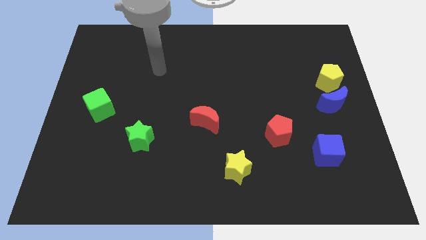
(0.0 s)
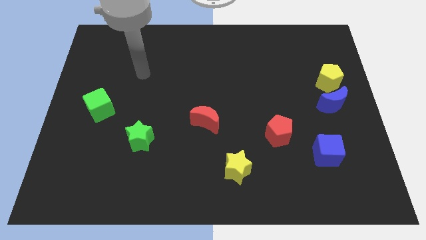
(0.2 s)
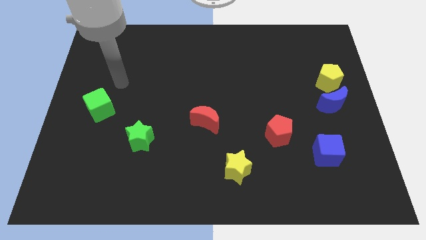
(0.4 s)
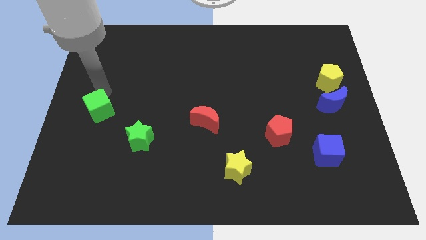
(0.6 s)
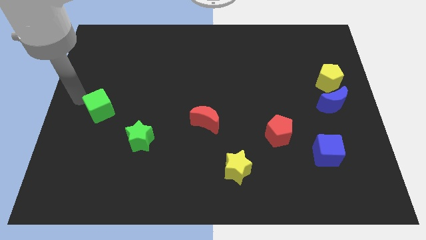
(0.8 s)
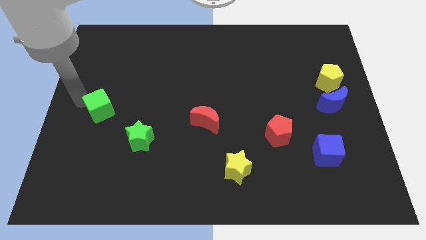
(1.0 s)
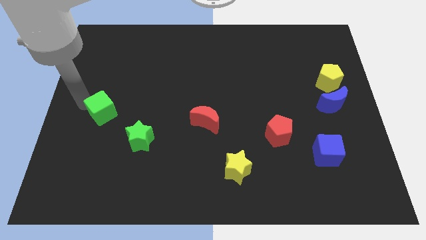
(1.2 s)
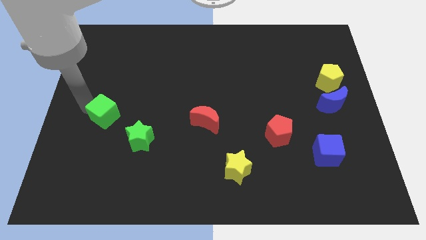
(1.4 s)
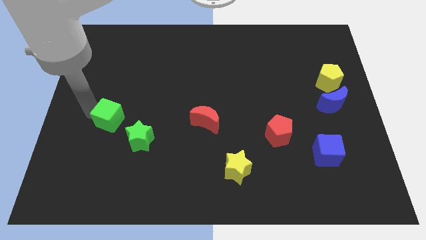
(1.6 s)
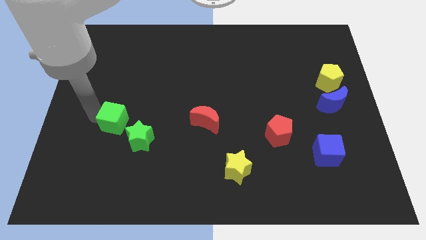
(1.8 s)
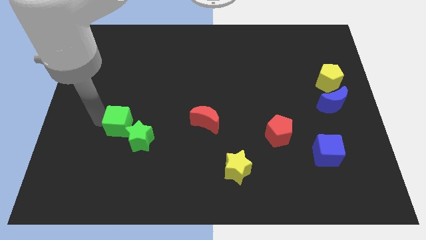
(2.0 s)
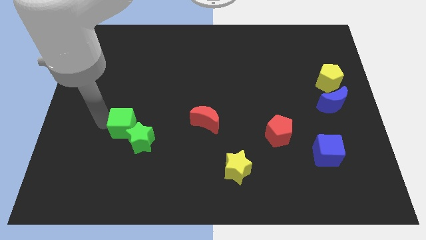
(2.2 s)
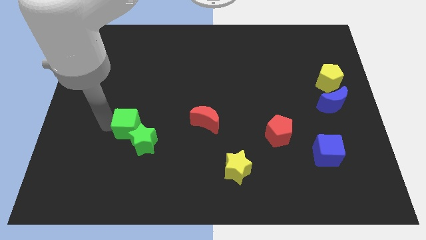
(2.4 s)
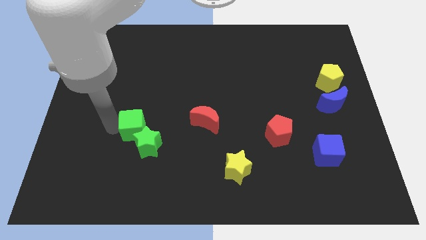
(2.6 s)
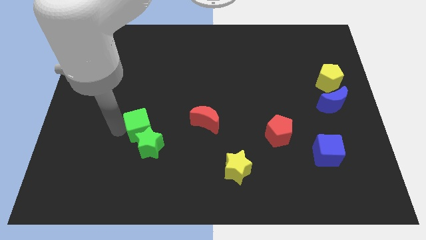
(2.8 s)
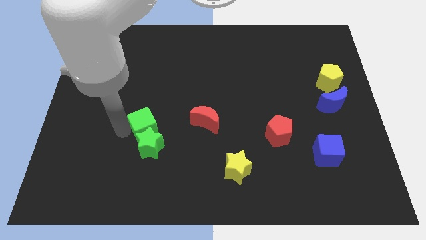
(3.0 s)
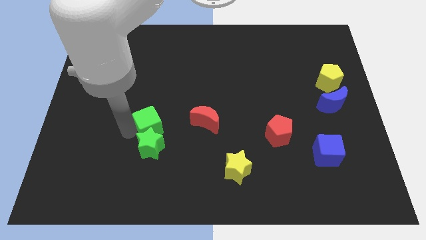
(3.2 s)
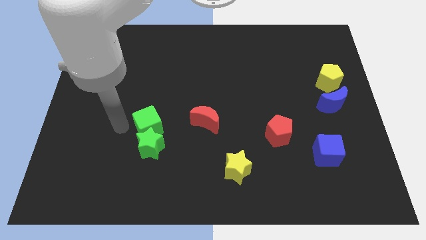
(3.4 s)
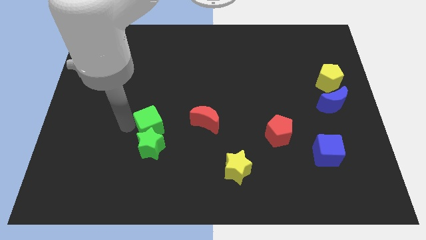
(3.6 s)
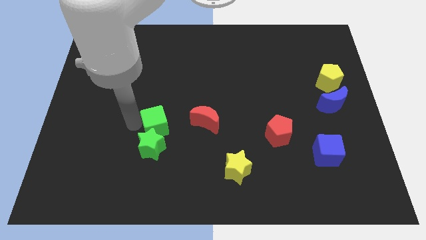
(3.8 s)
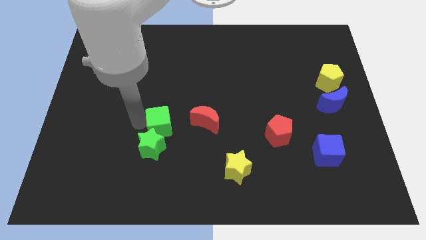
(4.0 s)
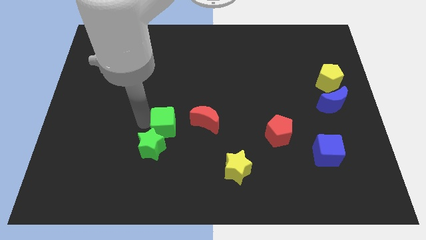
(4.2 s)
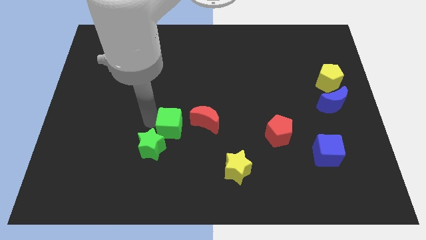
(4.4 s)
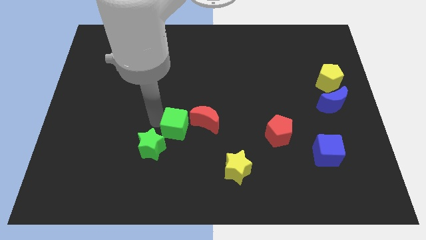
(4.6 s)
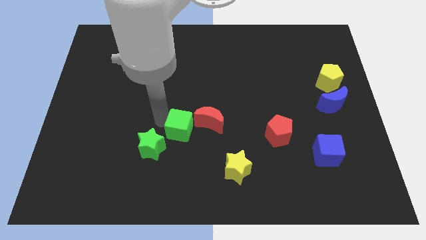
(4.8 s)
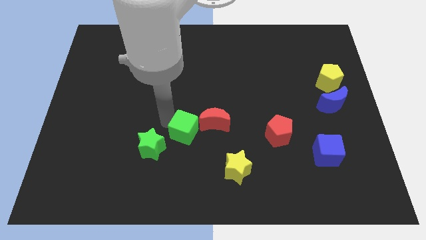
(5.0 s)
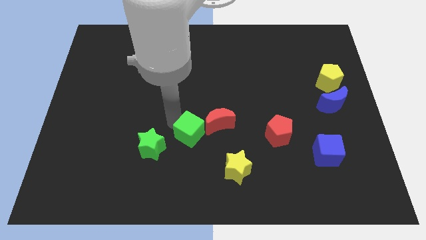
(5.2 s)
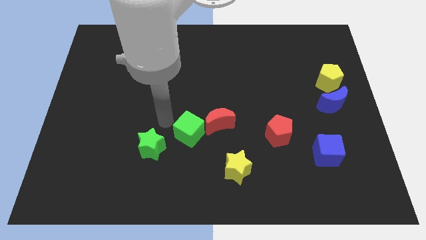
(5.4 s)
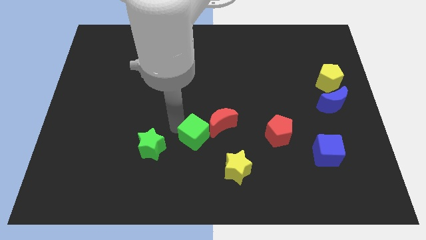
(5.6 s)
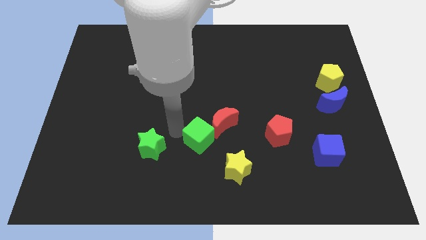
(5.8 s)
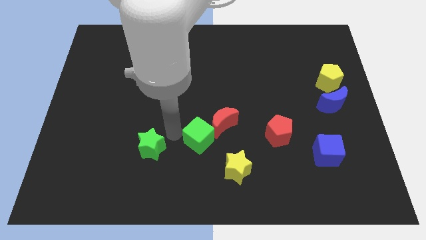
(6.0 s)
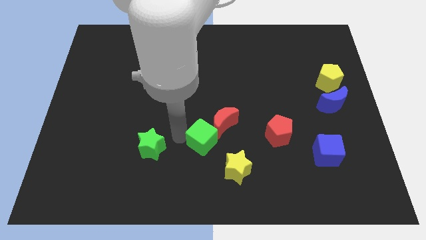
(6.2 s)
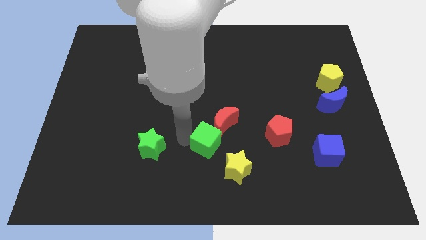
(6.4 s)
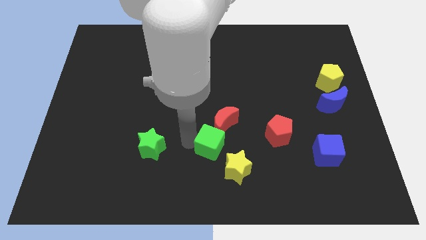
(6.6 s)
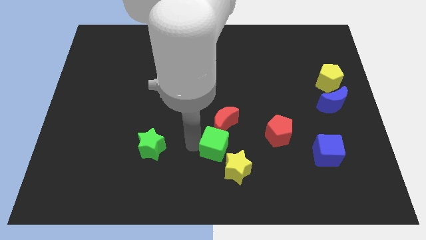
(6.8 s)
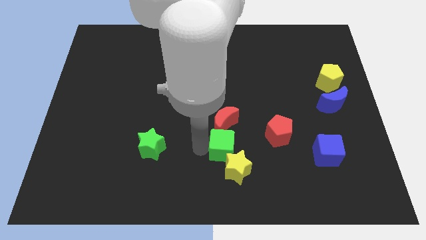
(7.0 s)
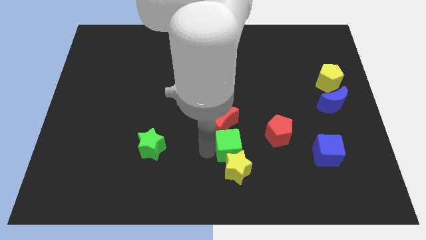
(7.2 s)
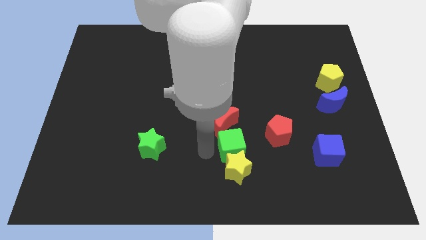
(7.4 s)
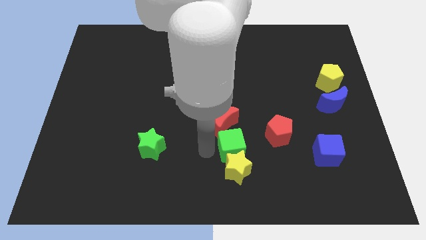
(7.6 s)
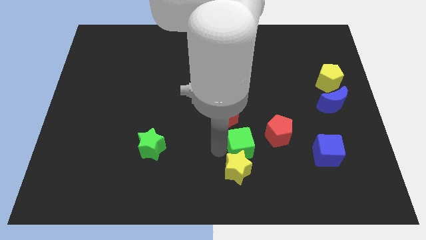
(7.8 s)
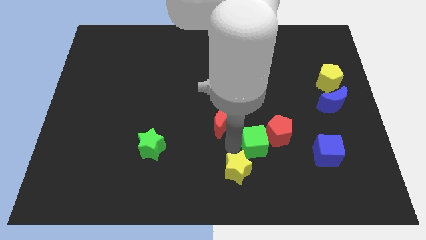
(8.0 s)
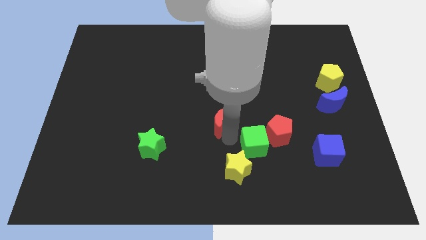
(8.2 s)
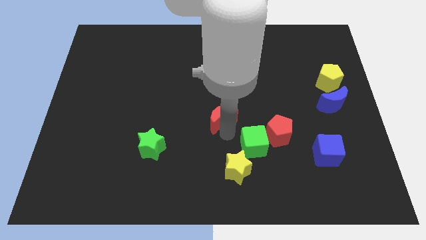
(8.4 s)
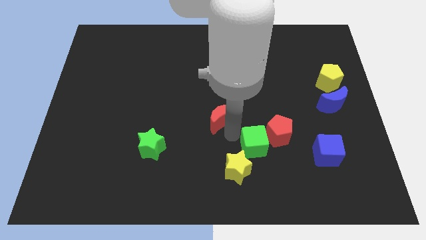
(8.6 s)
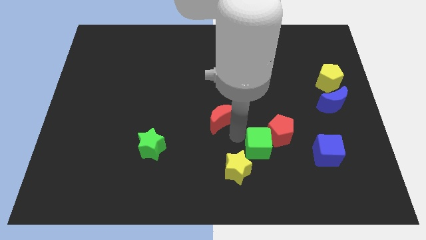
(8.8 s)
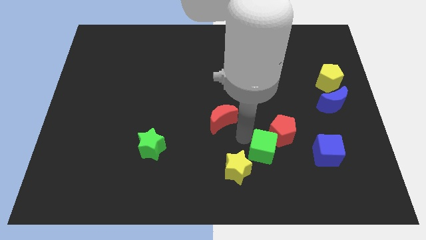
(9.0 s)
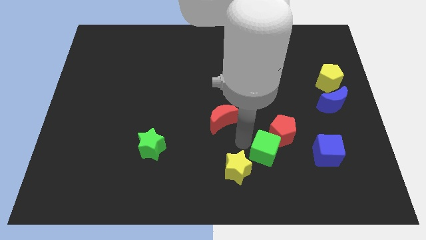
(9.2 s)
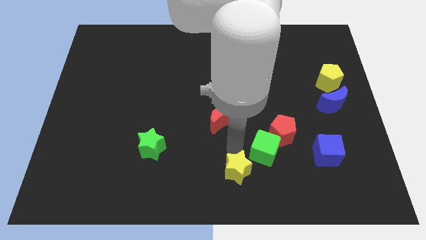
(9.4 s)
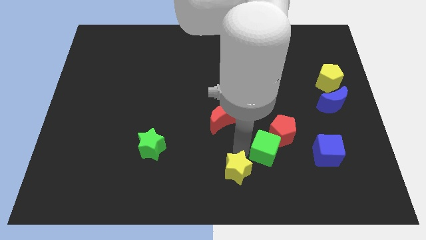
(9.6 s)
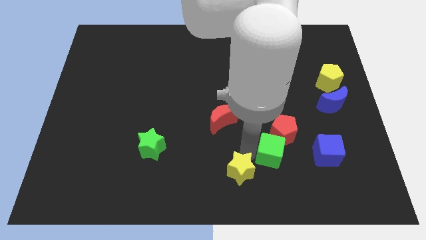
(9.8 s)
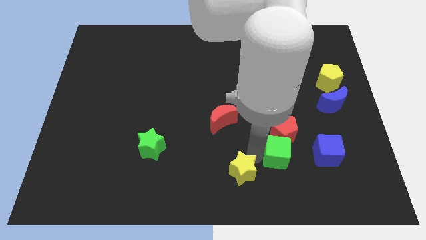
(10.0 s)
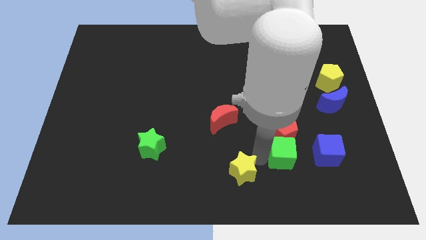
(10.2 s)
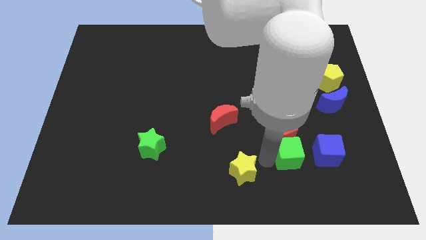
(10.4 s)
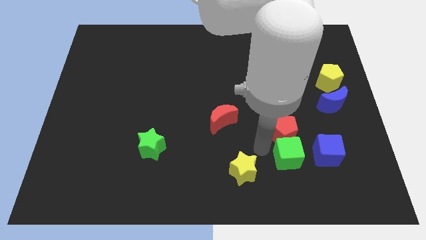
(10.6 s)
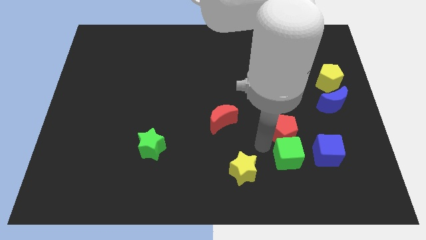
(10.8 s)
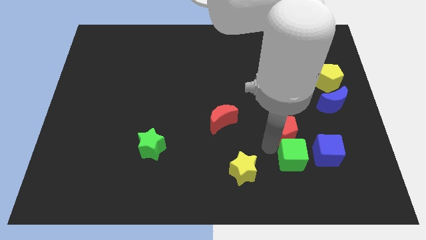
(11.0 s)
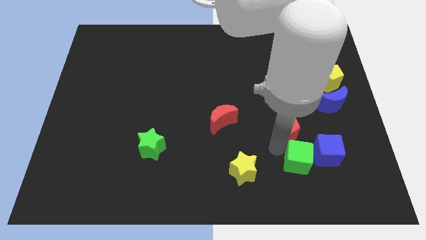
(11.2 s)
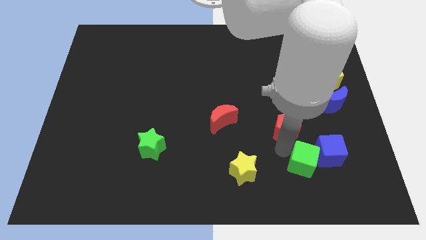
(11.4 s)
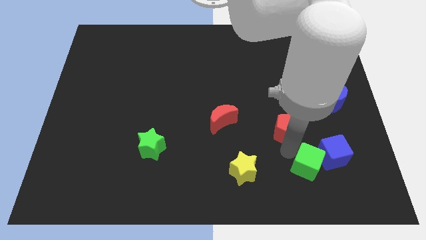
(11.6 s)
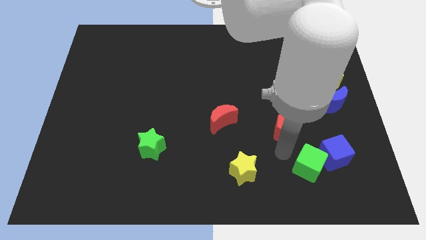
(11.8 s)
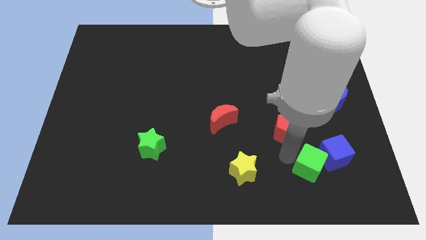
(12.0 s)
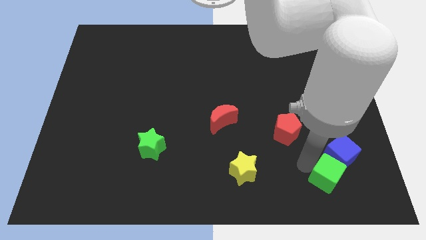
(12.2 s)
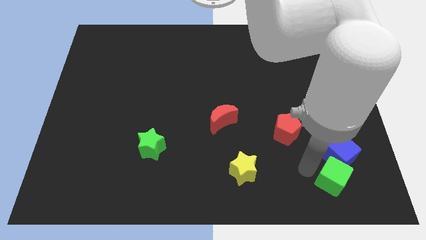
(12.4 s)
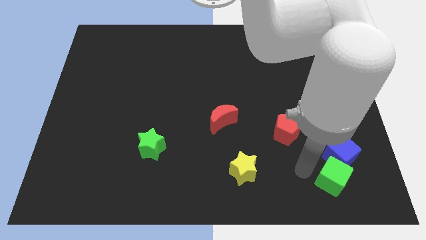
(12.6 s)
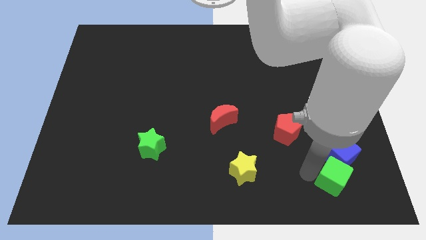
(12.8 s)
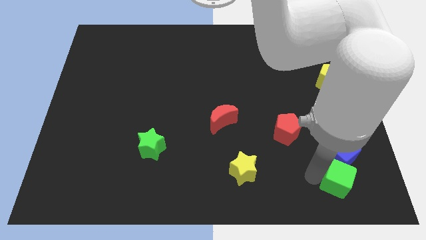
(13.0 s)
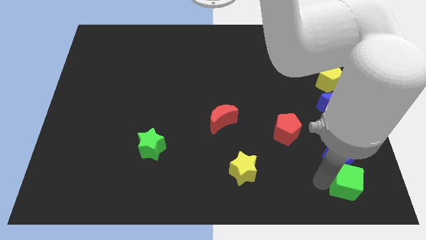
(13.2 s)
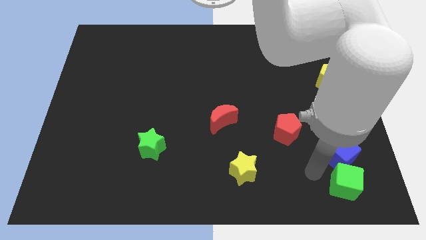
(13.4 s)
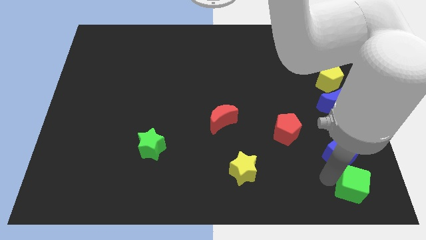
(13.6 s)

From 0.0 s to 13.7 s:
put the green cube to the bottom right corner
